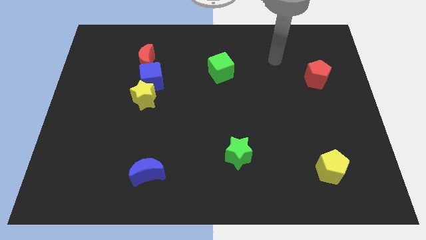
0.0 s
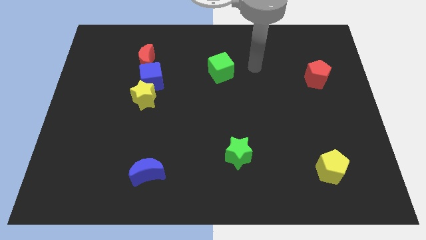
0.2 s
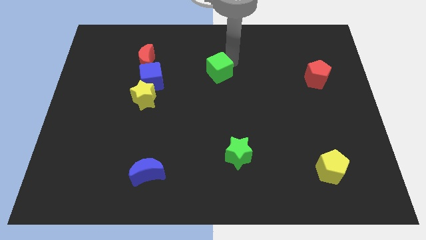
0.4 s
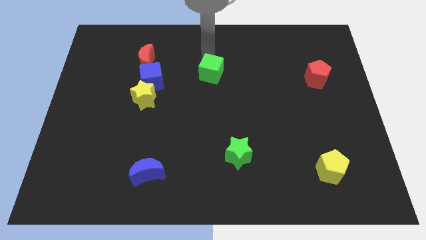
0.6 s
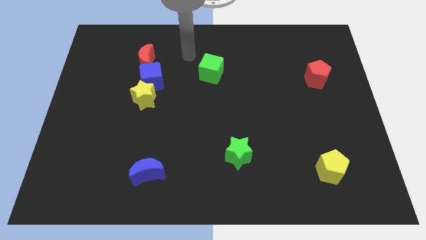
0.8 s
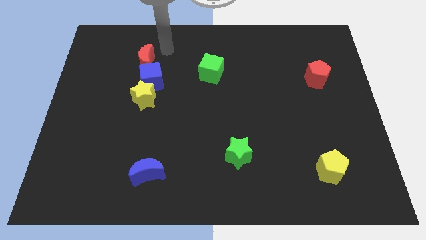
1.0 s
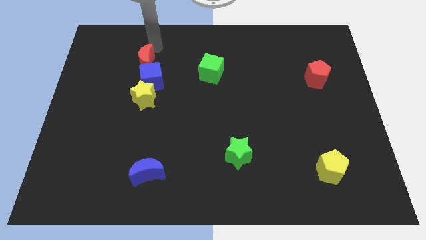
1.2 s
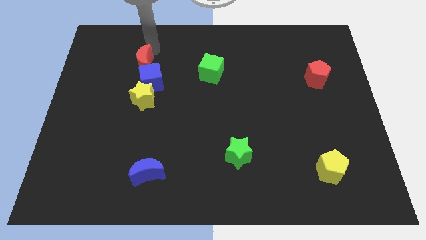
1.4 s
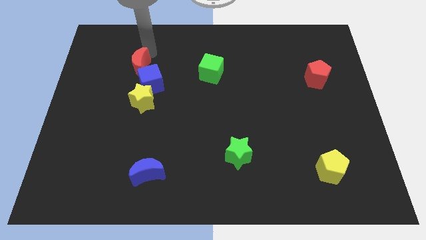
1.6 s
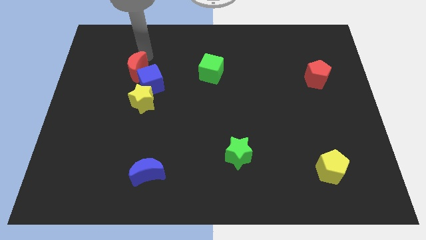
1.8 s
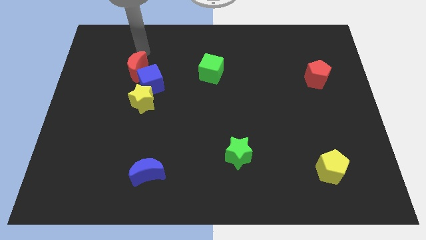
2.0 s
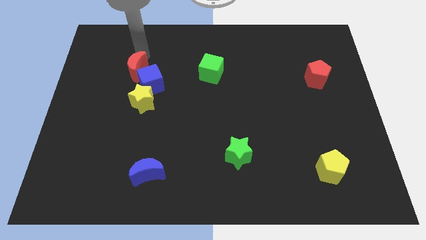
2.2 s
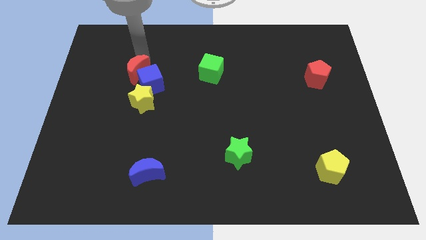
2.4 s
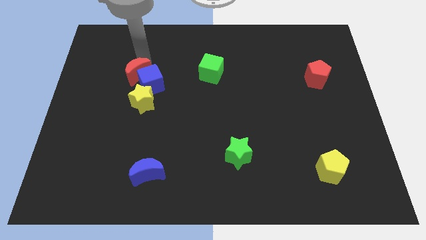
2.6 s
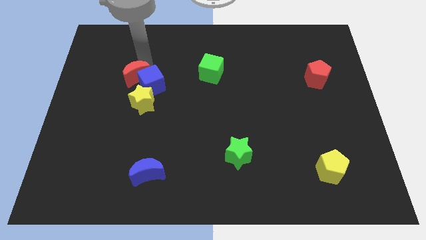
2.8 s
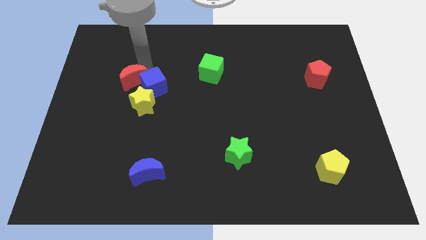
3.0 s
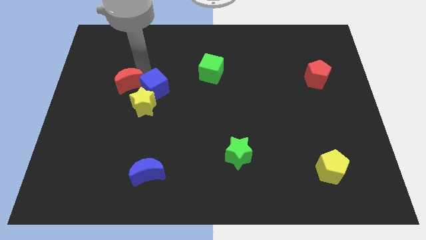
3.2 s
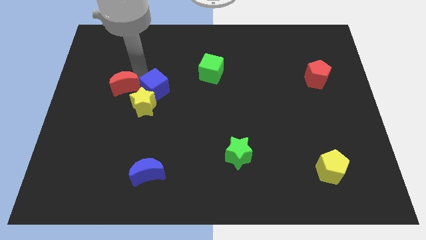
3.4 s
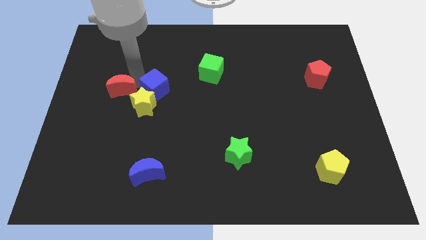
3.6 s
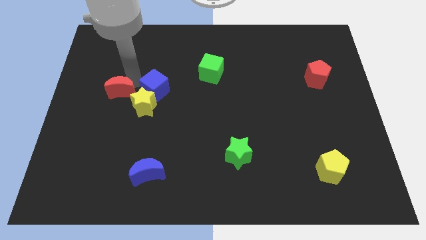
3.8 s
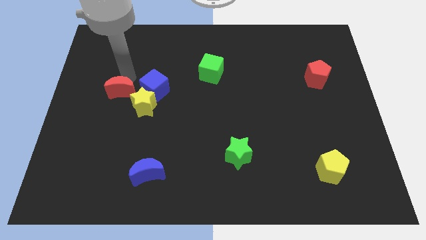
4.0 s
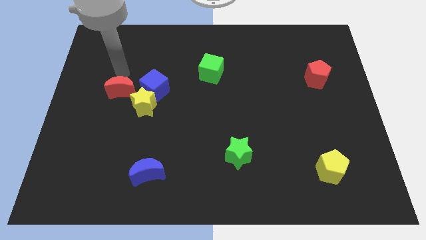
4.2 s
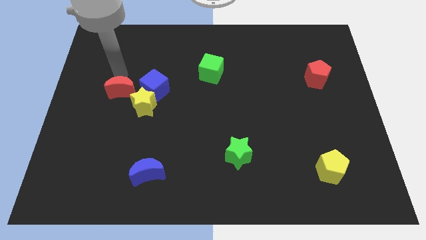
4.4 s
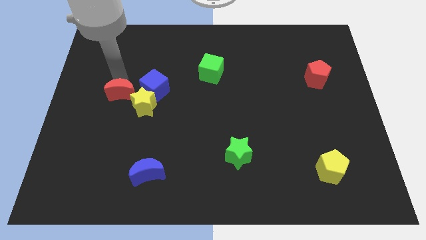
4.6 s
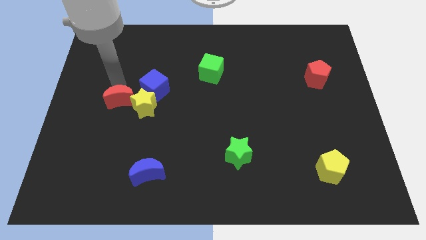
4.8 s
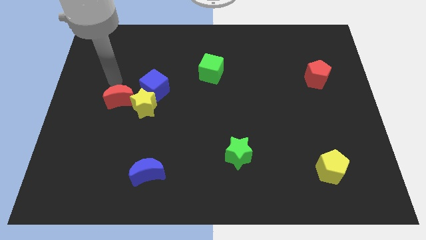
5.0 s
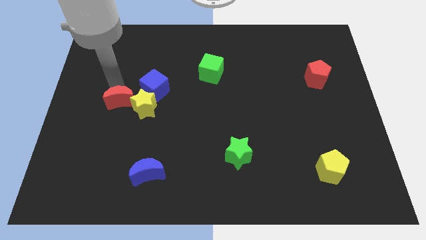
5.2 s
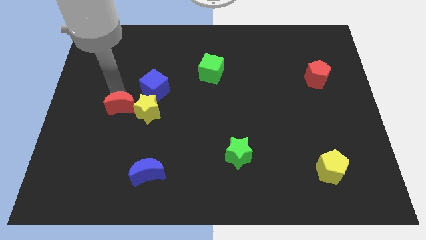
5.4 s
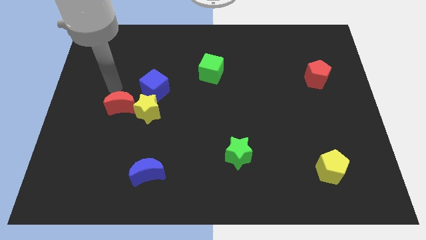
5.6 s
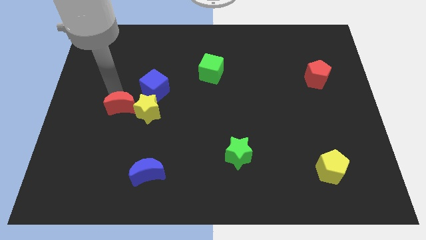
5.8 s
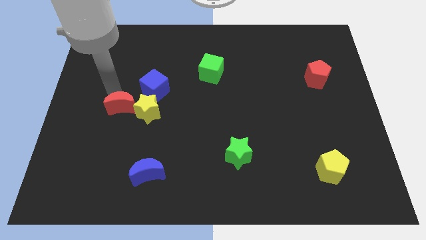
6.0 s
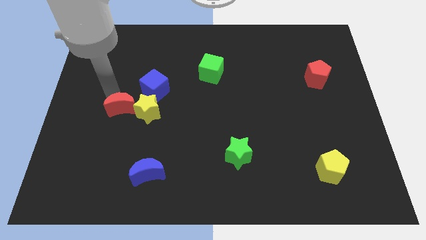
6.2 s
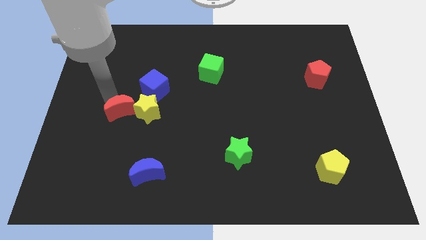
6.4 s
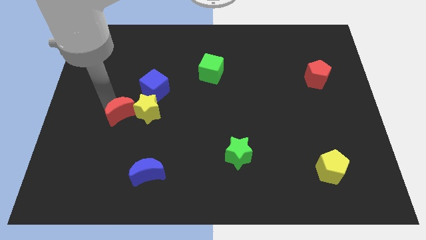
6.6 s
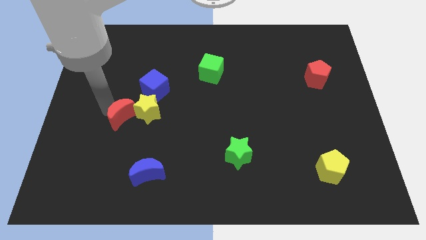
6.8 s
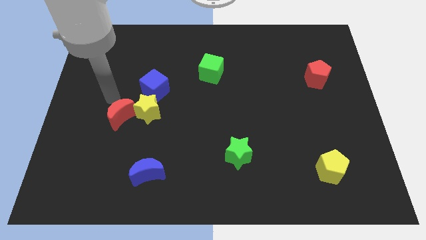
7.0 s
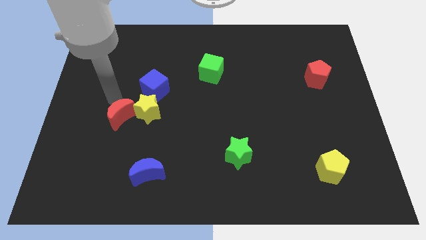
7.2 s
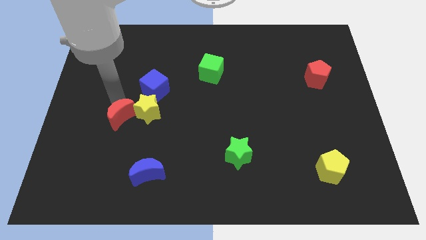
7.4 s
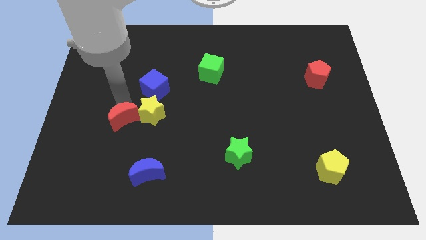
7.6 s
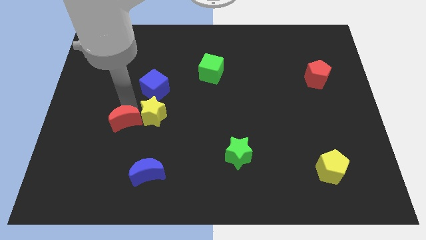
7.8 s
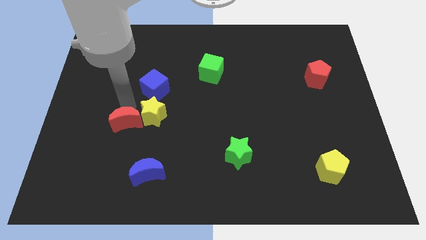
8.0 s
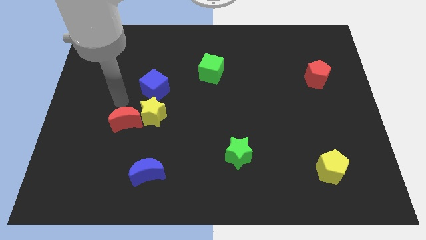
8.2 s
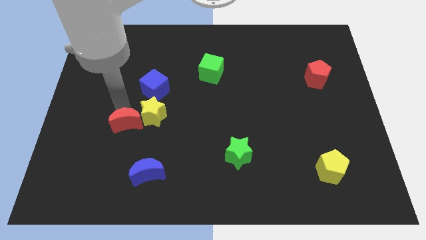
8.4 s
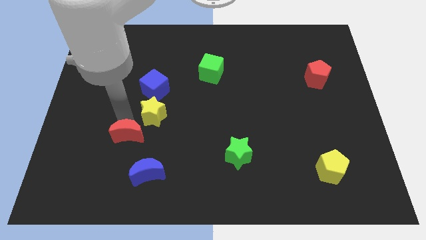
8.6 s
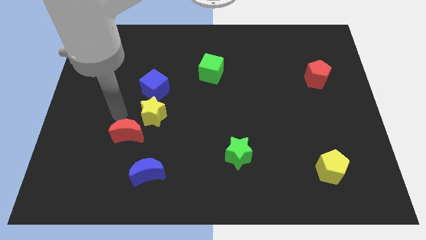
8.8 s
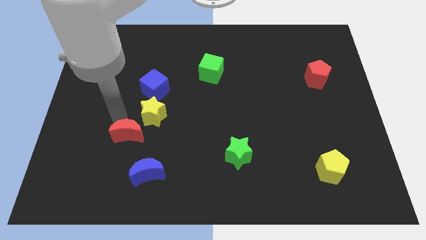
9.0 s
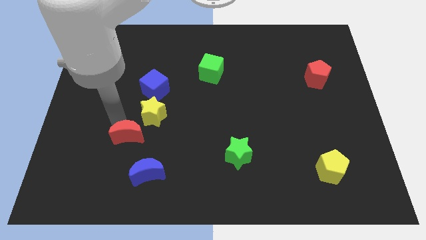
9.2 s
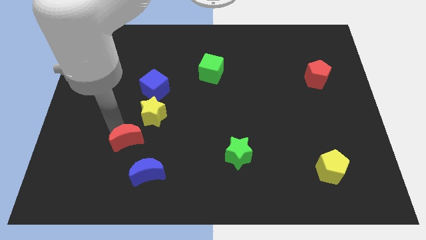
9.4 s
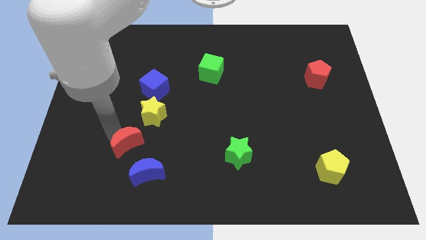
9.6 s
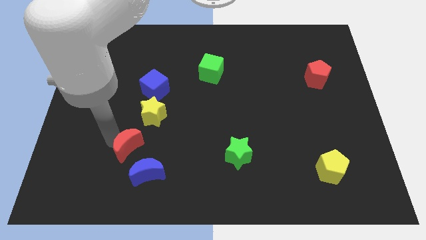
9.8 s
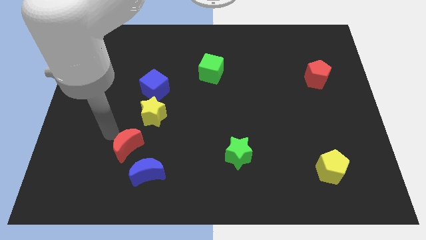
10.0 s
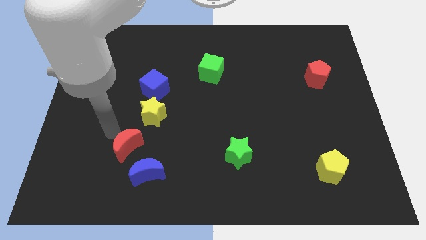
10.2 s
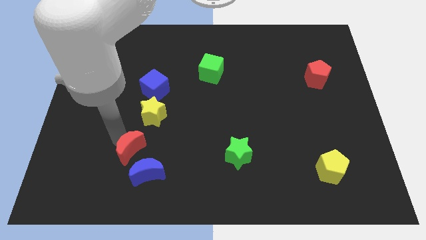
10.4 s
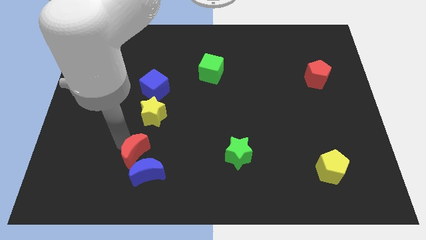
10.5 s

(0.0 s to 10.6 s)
slide the red moon close to the blue moon

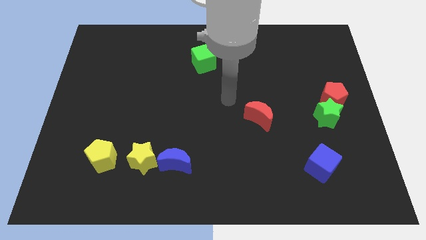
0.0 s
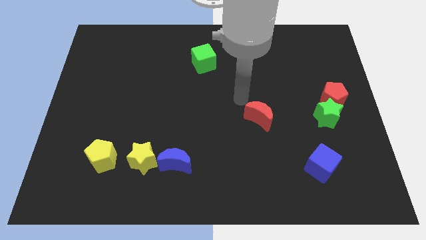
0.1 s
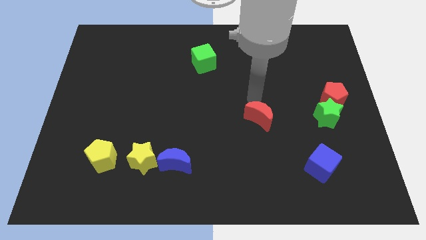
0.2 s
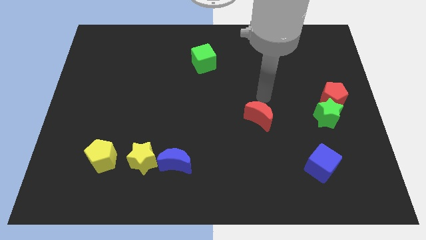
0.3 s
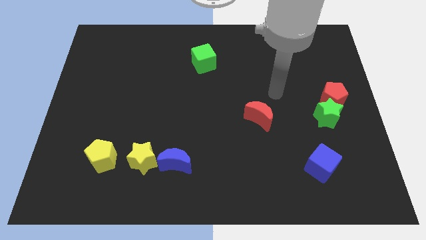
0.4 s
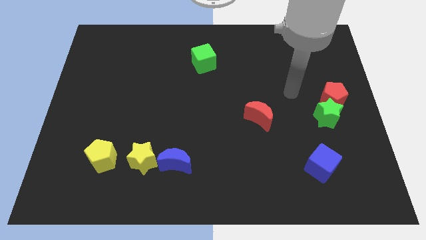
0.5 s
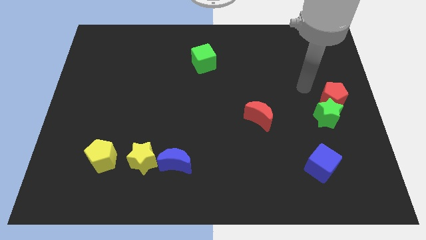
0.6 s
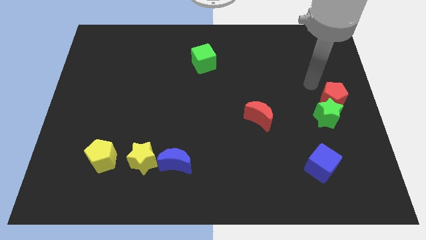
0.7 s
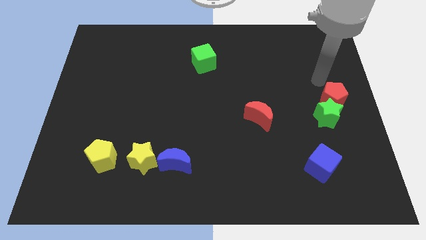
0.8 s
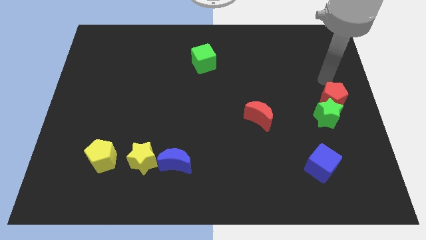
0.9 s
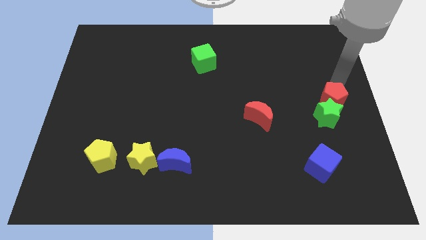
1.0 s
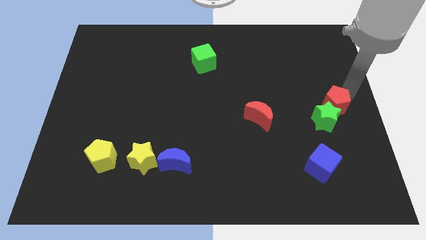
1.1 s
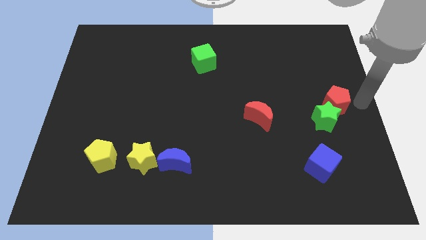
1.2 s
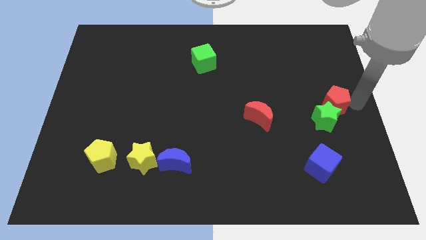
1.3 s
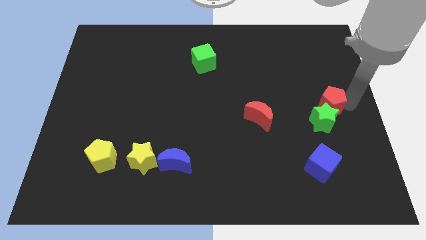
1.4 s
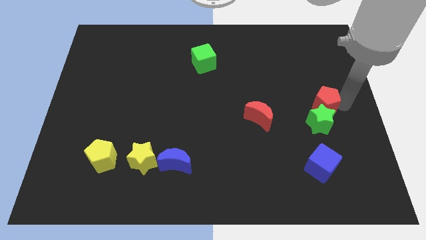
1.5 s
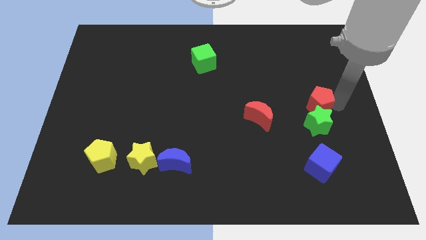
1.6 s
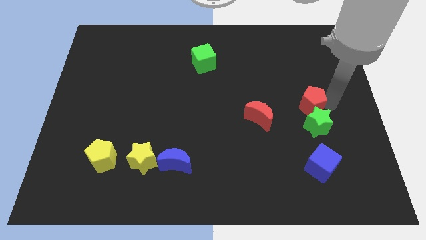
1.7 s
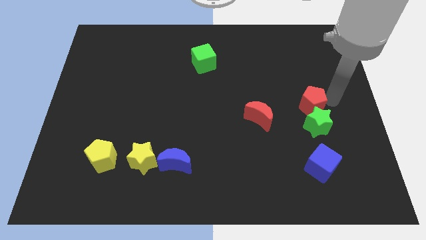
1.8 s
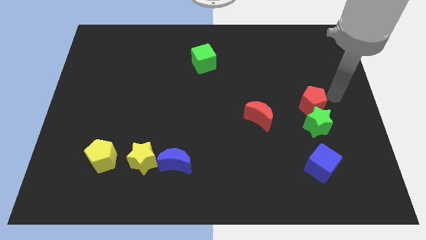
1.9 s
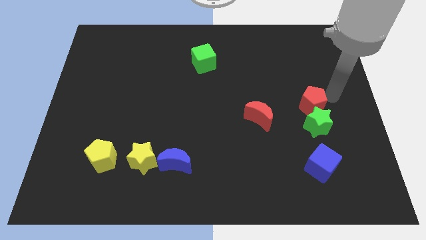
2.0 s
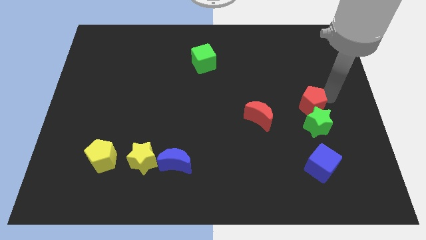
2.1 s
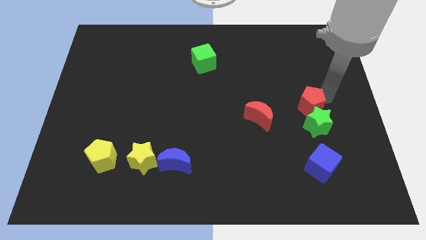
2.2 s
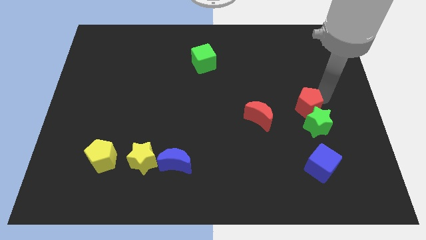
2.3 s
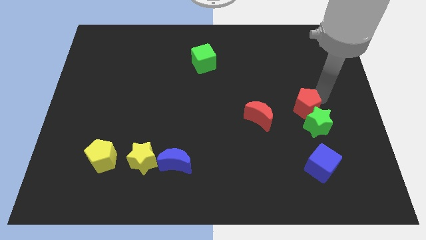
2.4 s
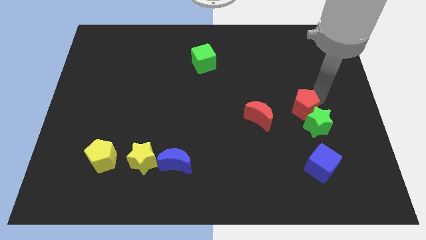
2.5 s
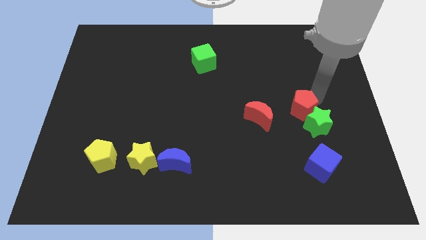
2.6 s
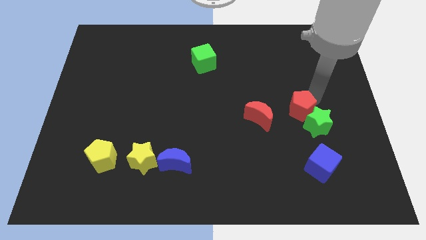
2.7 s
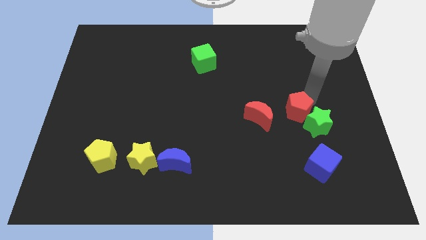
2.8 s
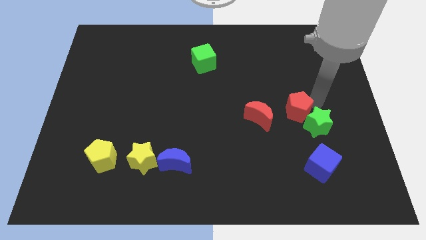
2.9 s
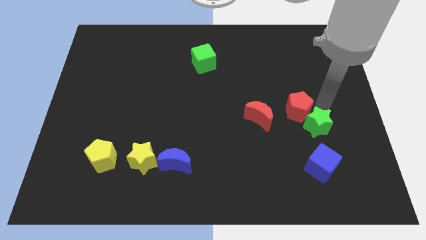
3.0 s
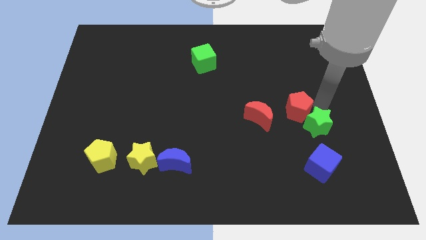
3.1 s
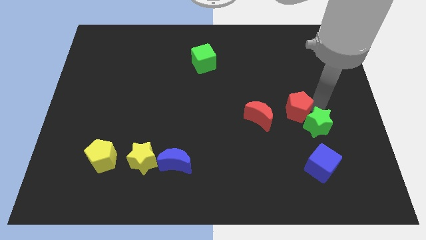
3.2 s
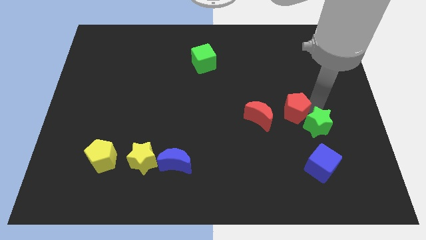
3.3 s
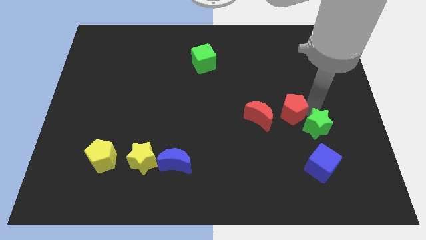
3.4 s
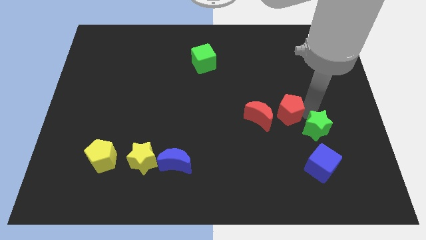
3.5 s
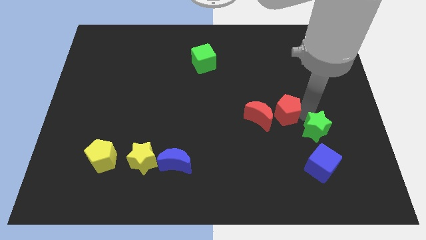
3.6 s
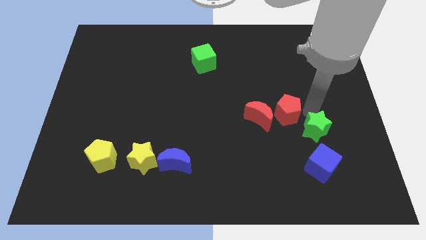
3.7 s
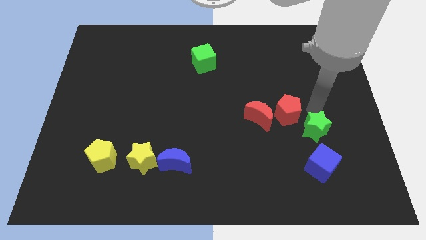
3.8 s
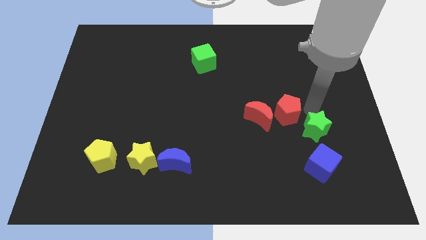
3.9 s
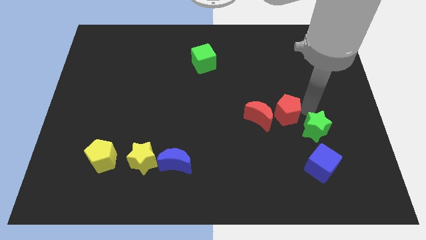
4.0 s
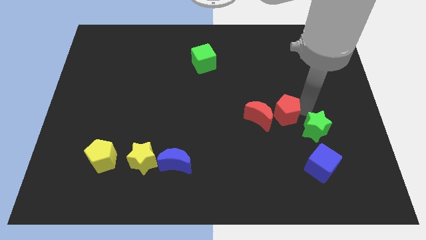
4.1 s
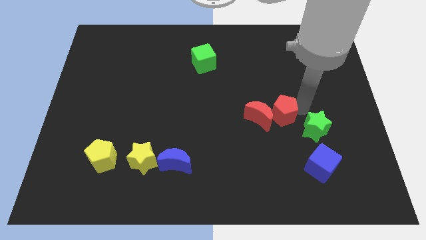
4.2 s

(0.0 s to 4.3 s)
move the red pentagon close to the red moon
